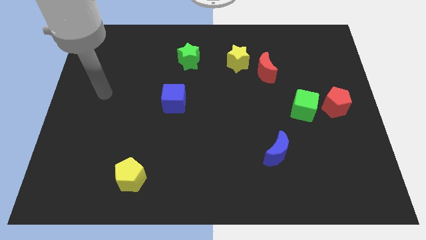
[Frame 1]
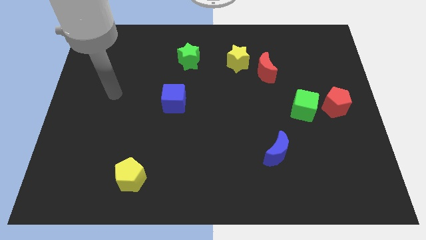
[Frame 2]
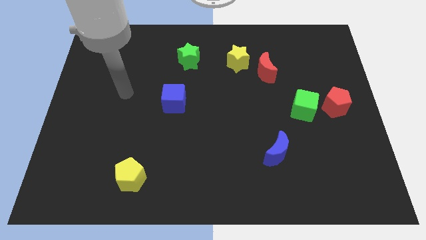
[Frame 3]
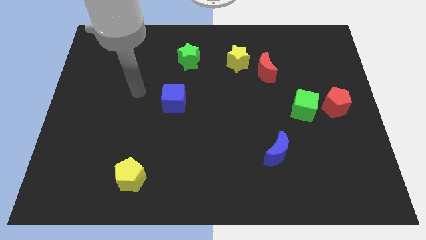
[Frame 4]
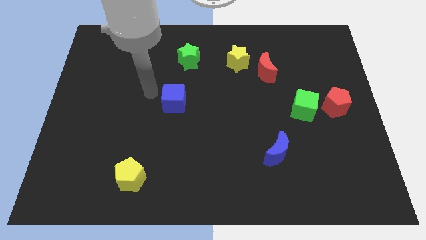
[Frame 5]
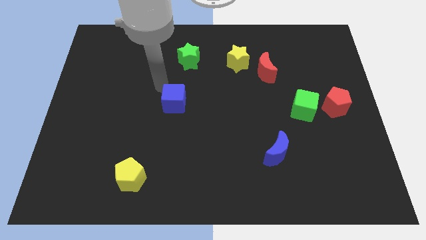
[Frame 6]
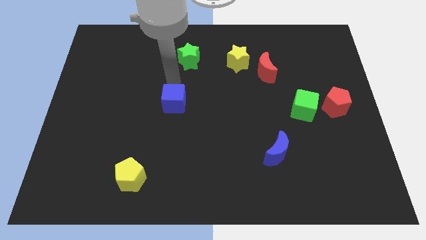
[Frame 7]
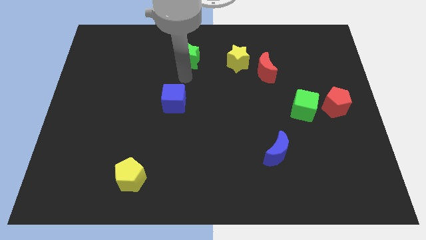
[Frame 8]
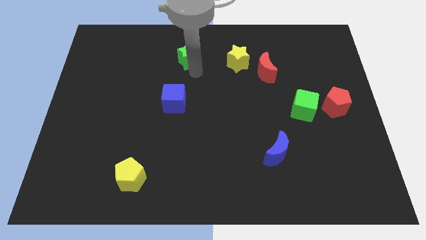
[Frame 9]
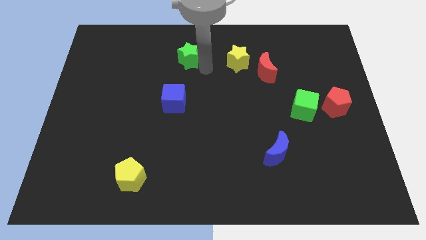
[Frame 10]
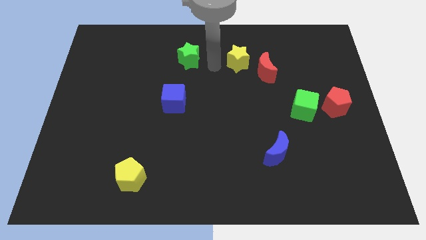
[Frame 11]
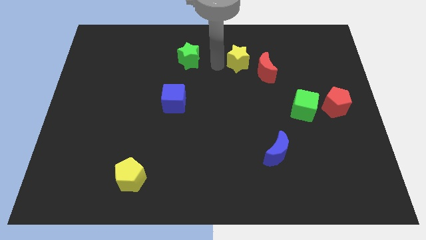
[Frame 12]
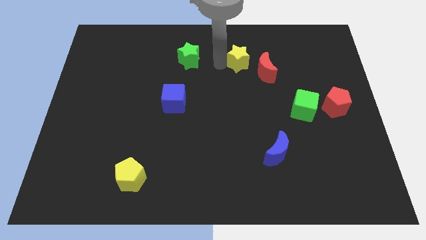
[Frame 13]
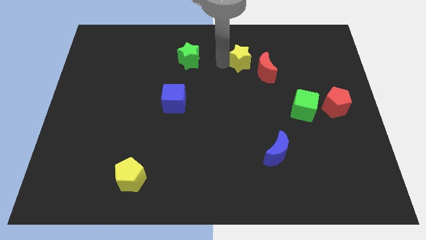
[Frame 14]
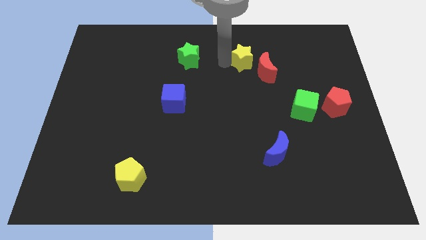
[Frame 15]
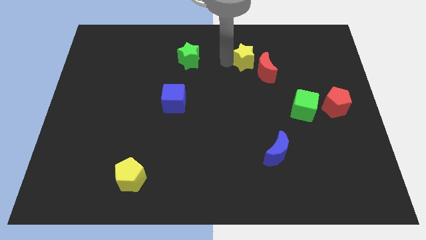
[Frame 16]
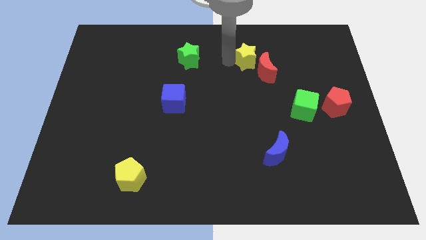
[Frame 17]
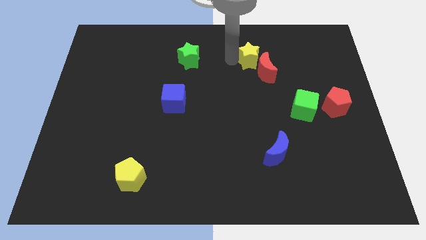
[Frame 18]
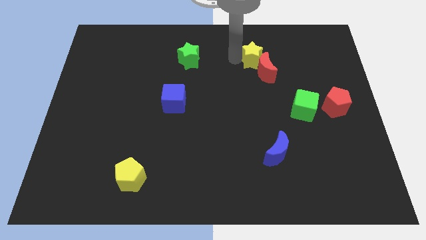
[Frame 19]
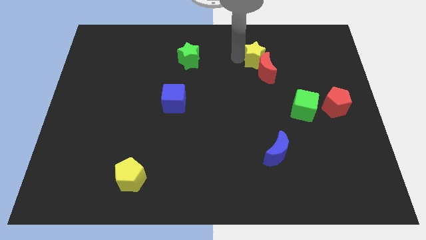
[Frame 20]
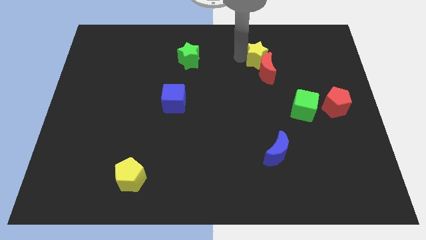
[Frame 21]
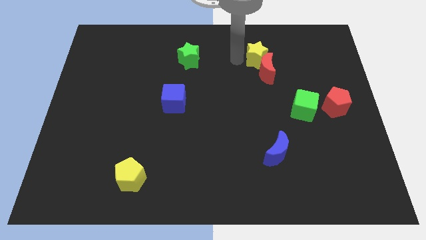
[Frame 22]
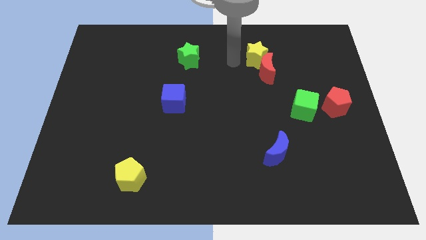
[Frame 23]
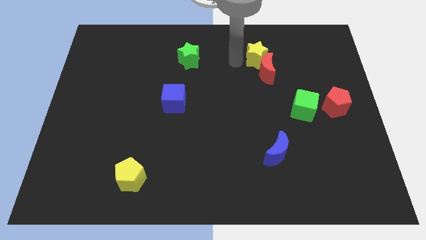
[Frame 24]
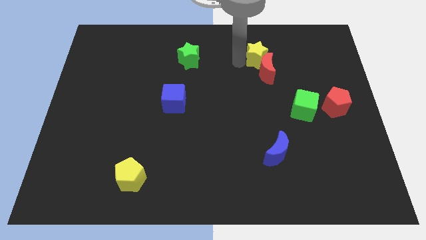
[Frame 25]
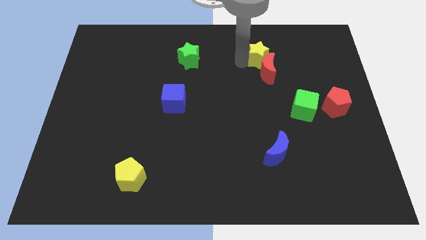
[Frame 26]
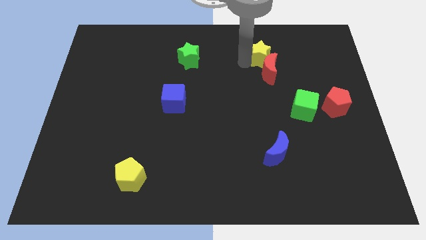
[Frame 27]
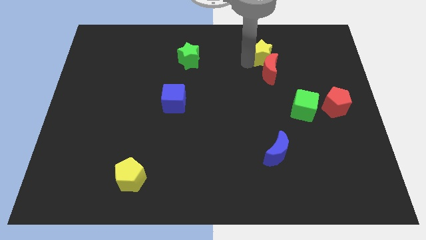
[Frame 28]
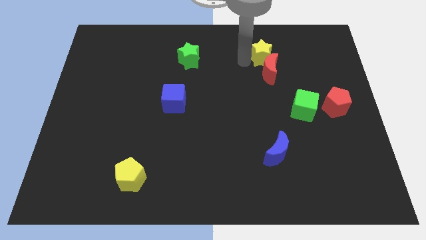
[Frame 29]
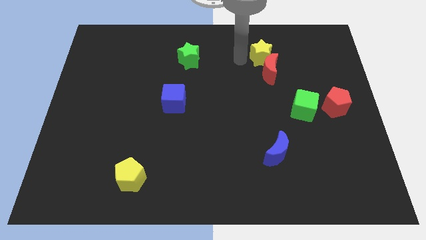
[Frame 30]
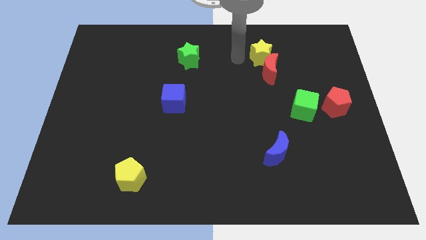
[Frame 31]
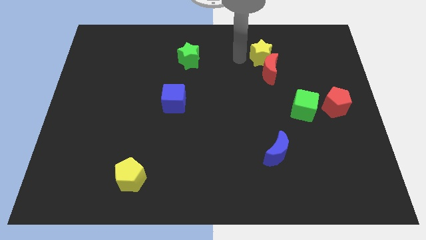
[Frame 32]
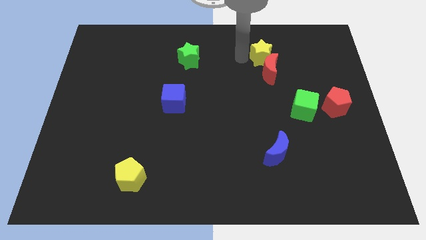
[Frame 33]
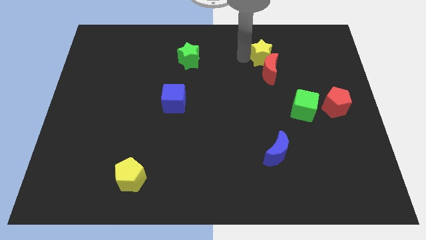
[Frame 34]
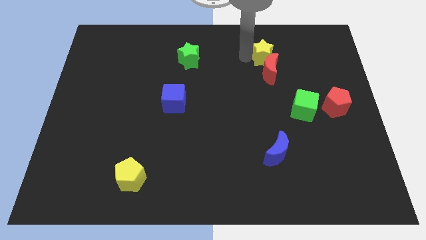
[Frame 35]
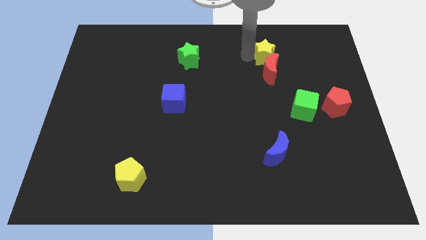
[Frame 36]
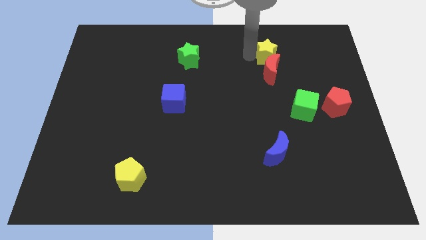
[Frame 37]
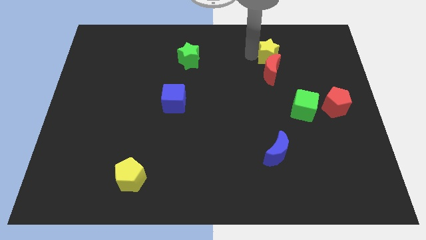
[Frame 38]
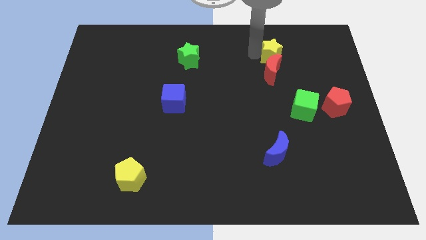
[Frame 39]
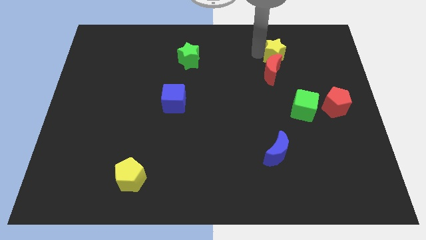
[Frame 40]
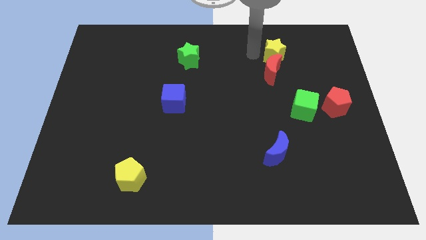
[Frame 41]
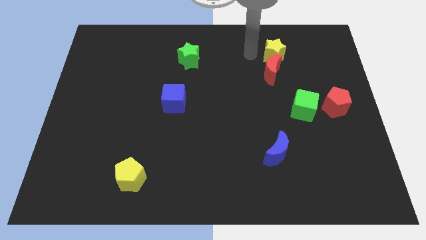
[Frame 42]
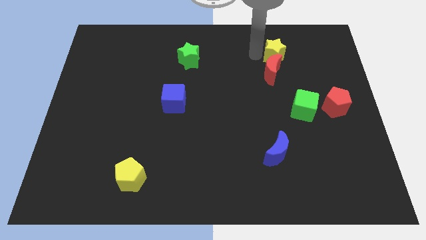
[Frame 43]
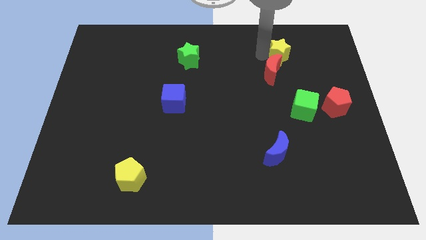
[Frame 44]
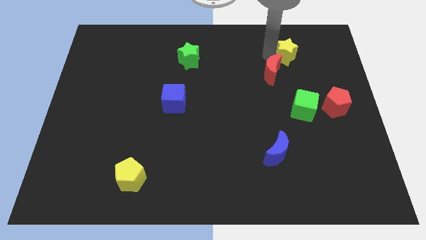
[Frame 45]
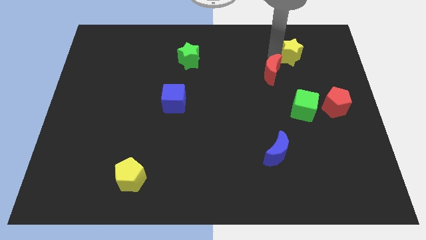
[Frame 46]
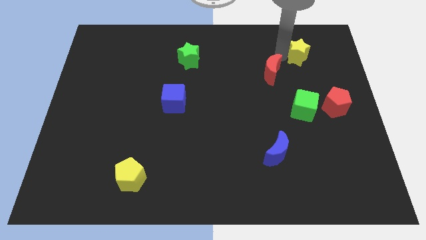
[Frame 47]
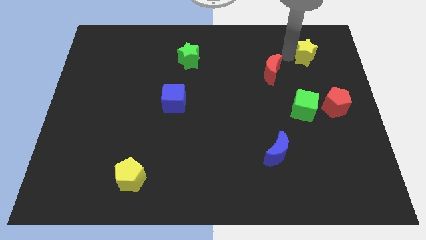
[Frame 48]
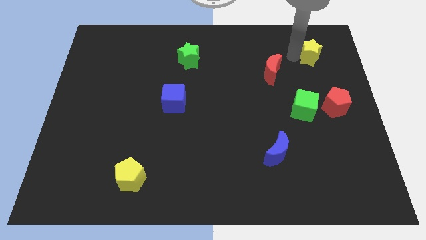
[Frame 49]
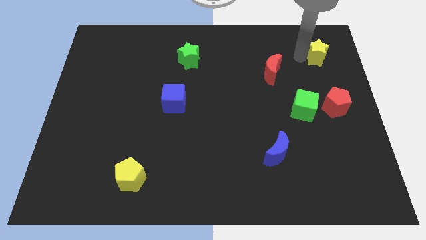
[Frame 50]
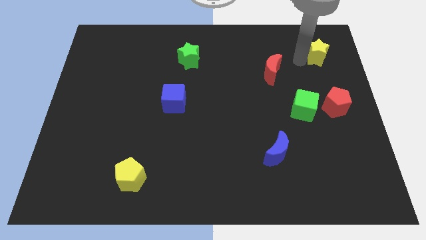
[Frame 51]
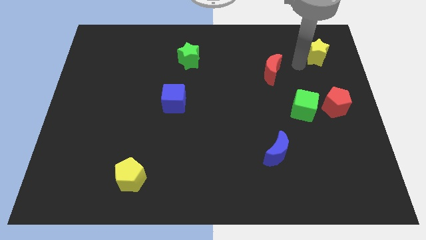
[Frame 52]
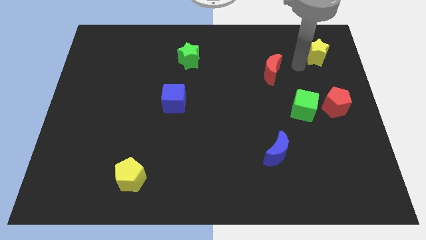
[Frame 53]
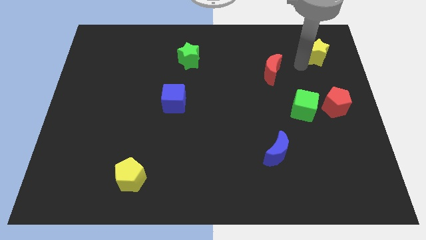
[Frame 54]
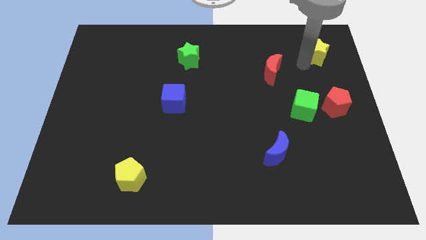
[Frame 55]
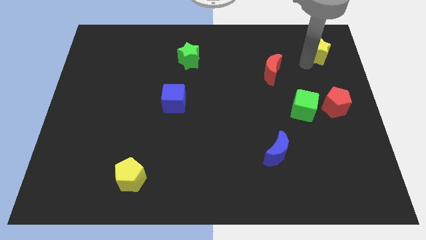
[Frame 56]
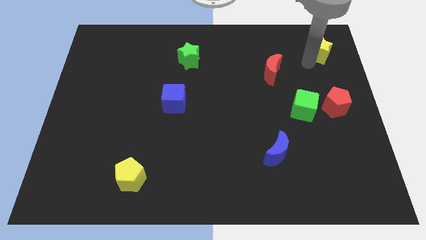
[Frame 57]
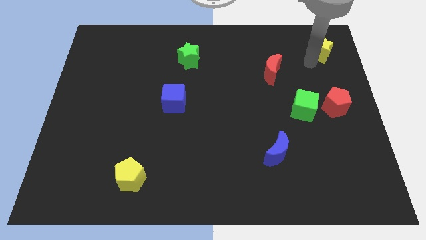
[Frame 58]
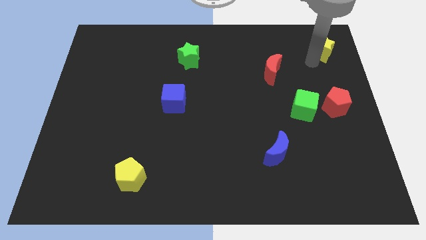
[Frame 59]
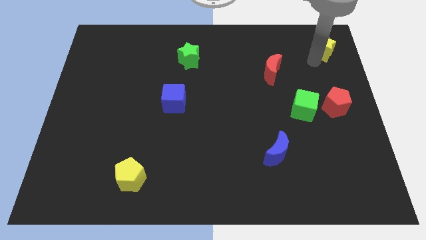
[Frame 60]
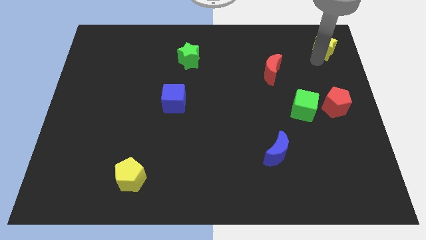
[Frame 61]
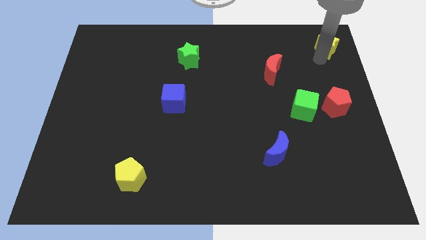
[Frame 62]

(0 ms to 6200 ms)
move the yellow star to the top right
